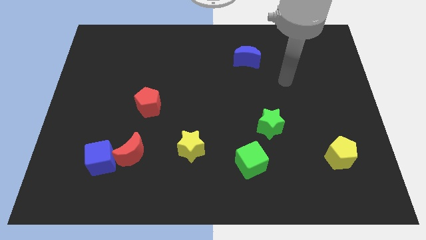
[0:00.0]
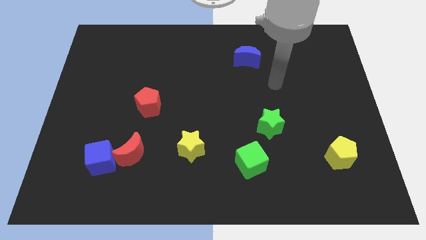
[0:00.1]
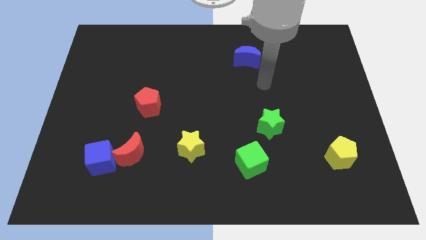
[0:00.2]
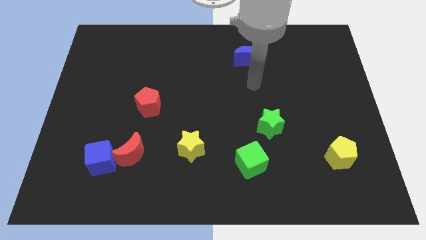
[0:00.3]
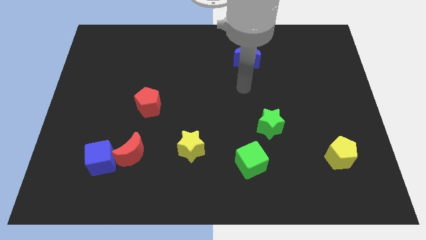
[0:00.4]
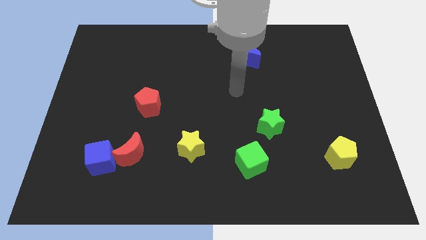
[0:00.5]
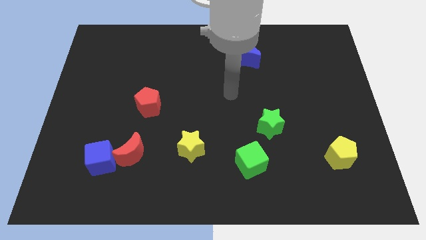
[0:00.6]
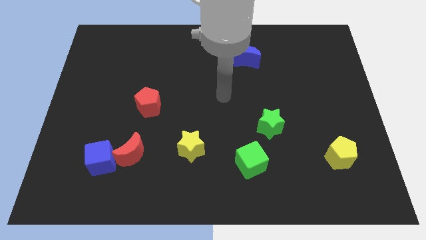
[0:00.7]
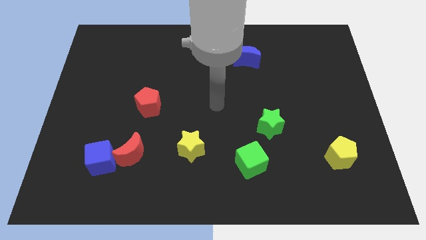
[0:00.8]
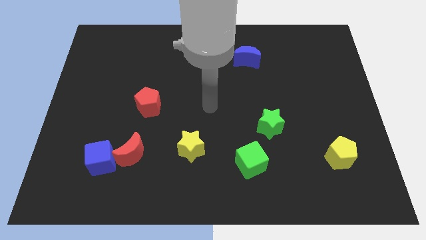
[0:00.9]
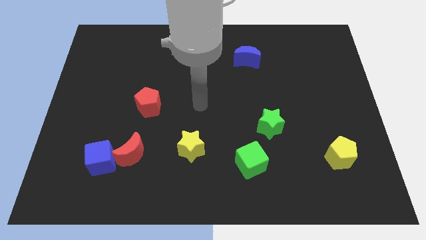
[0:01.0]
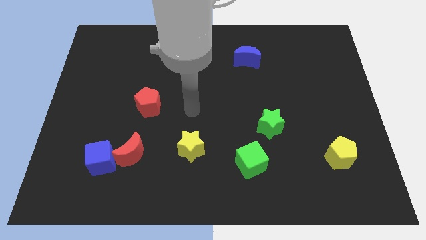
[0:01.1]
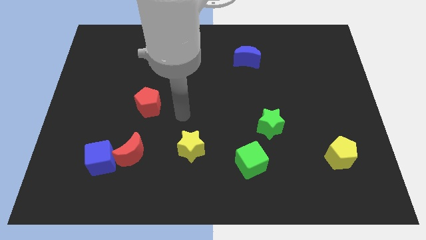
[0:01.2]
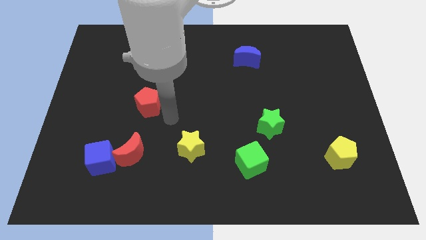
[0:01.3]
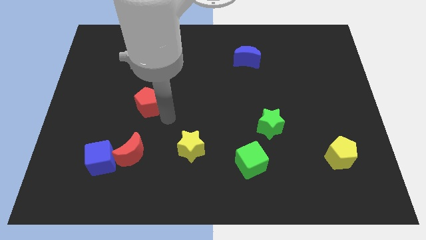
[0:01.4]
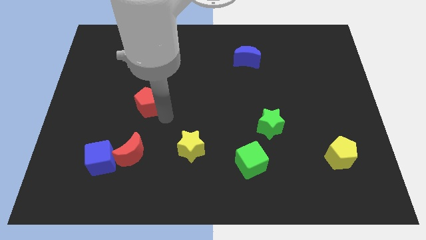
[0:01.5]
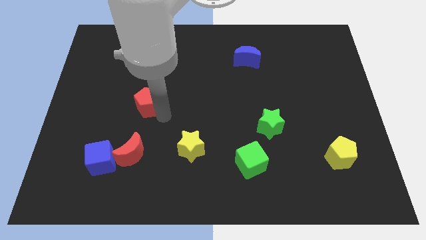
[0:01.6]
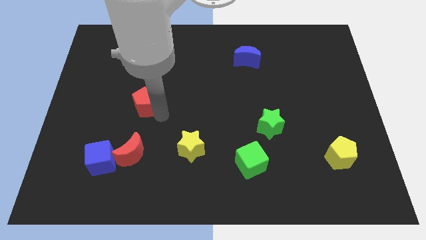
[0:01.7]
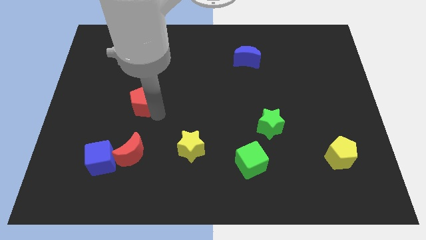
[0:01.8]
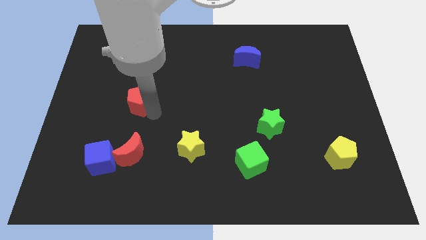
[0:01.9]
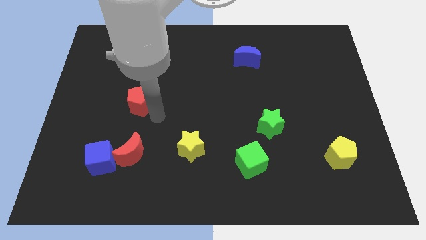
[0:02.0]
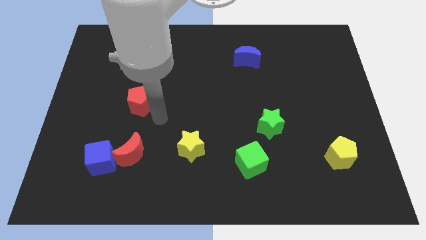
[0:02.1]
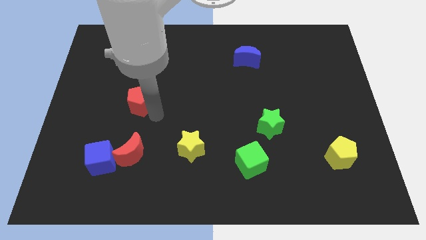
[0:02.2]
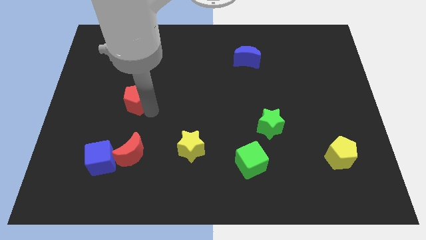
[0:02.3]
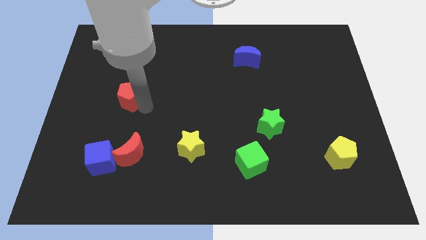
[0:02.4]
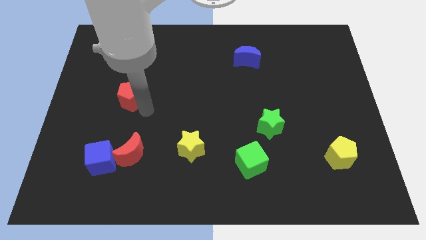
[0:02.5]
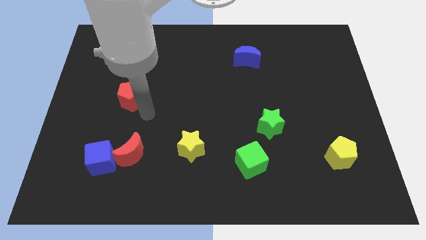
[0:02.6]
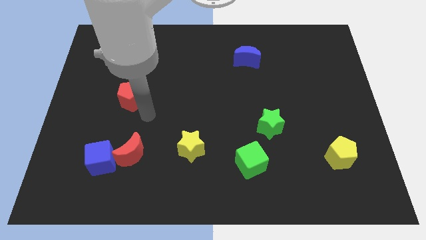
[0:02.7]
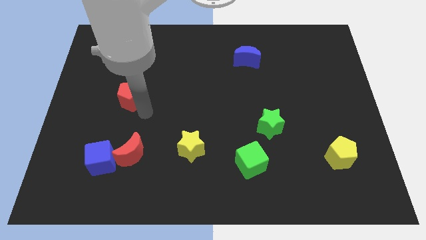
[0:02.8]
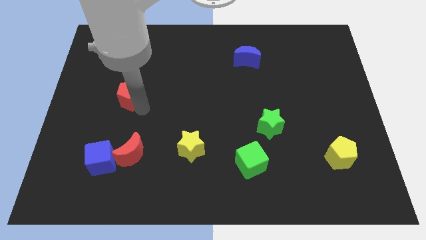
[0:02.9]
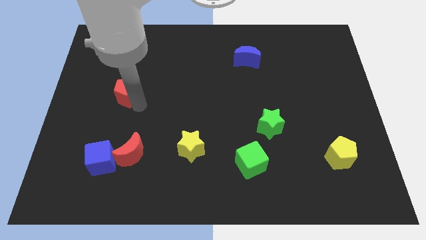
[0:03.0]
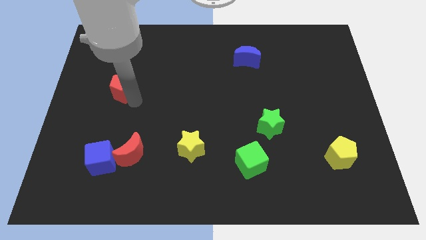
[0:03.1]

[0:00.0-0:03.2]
slightly slide the red pentagon up and to the left

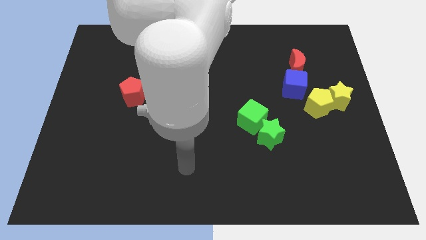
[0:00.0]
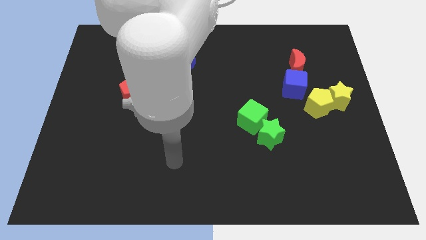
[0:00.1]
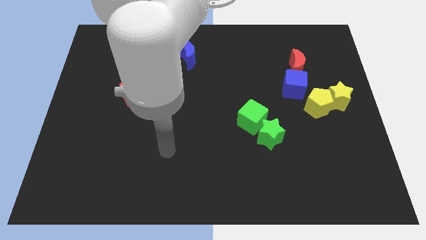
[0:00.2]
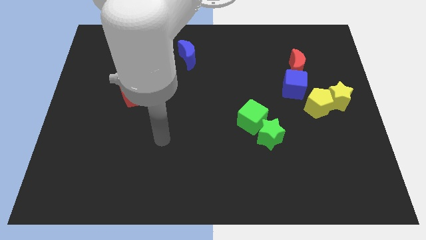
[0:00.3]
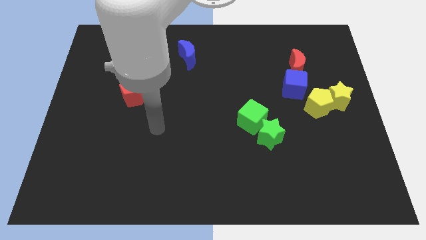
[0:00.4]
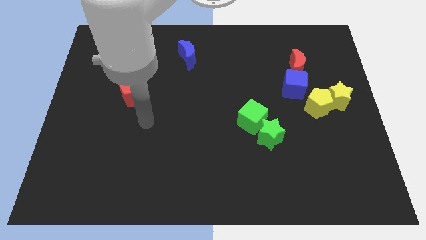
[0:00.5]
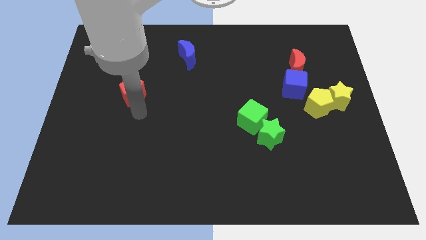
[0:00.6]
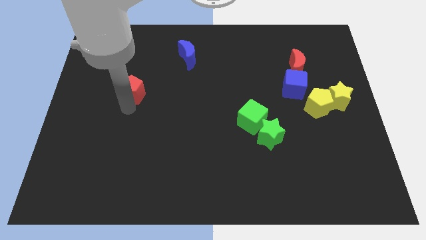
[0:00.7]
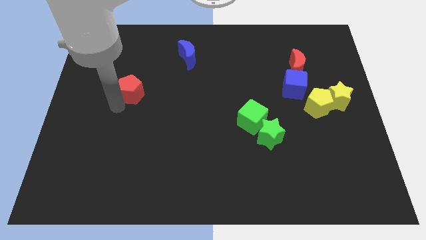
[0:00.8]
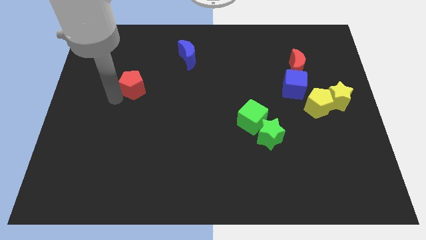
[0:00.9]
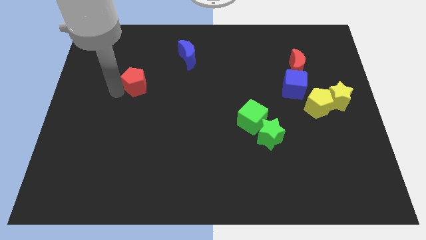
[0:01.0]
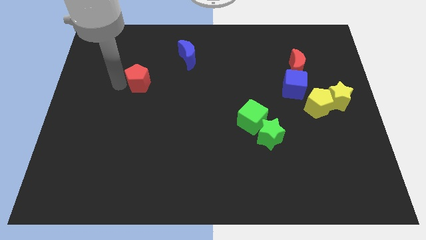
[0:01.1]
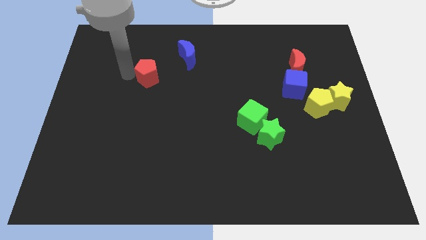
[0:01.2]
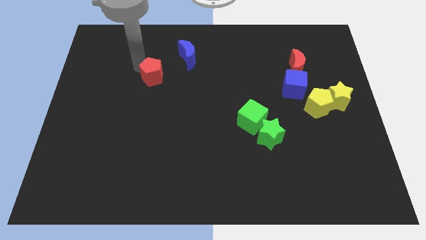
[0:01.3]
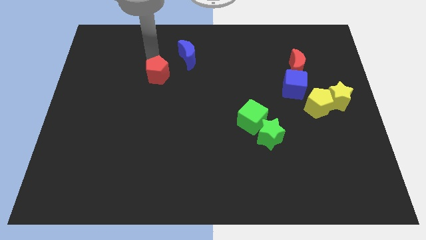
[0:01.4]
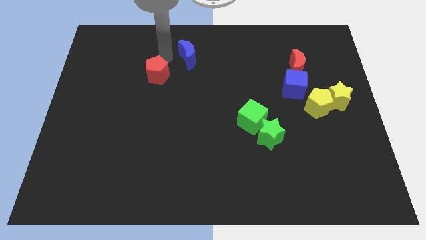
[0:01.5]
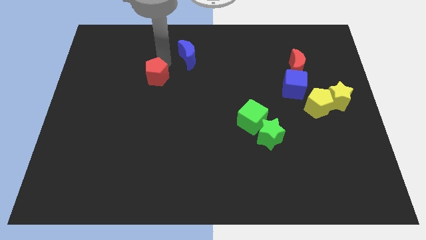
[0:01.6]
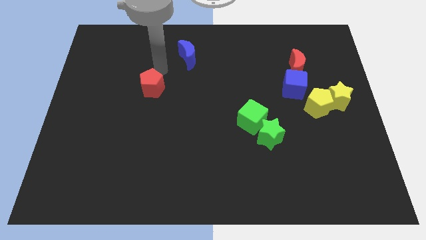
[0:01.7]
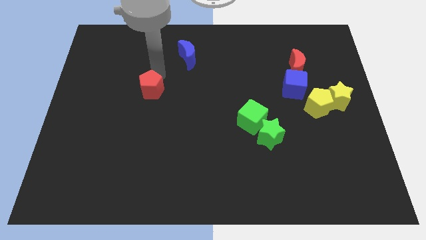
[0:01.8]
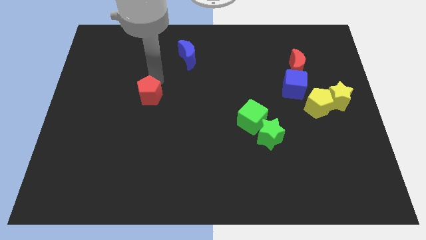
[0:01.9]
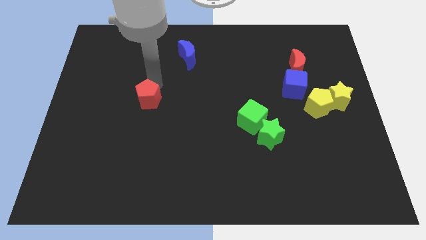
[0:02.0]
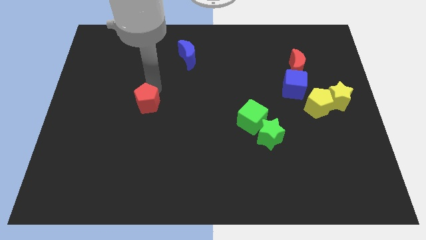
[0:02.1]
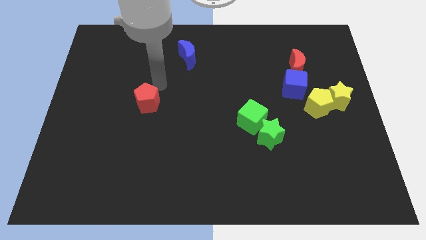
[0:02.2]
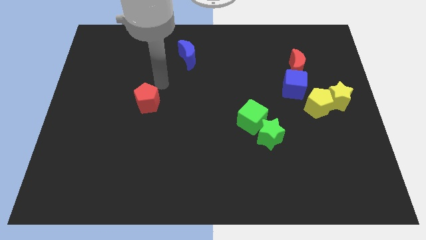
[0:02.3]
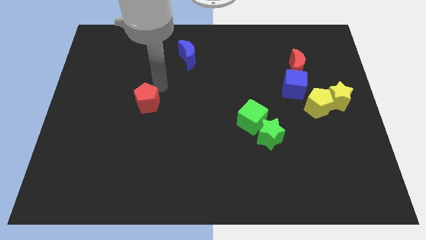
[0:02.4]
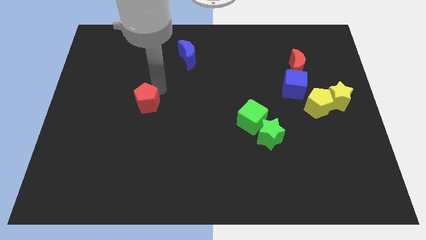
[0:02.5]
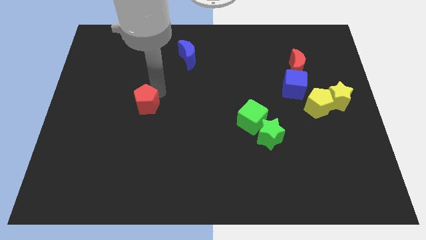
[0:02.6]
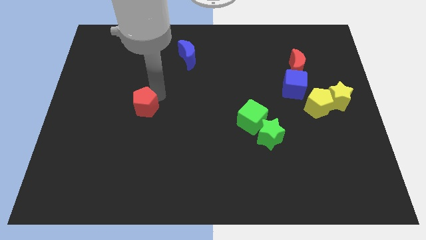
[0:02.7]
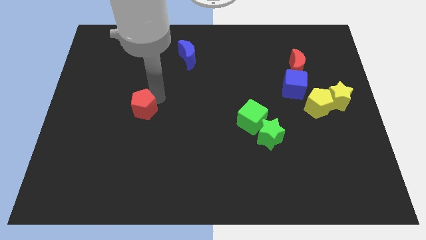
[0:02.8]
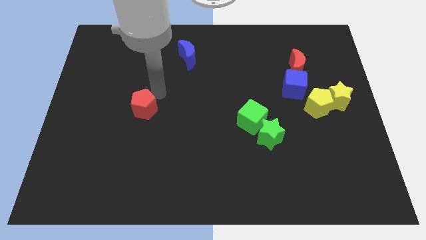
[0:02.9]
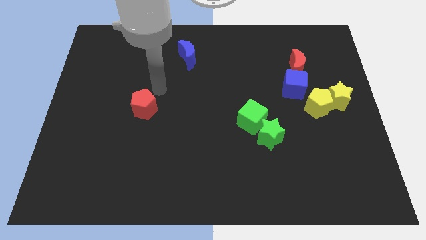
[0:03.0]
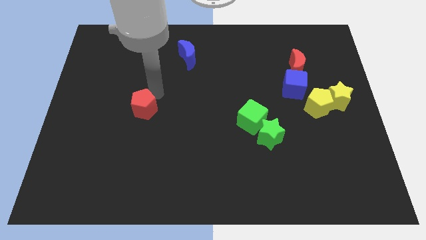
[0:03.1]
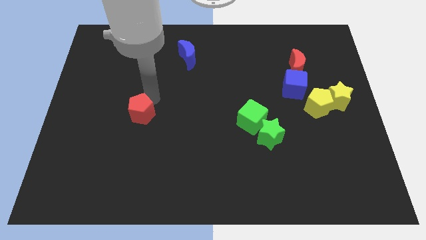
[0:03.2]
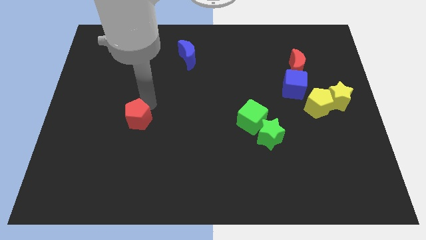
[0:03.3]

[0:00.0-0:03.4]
slide the red pentagon downwards slightly

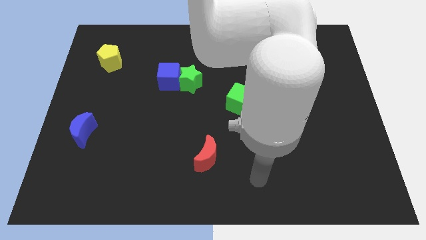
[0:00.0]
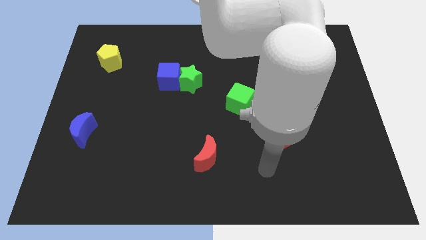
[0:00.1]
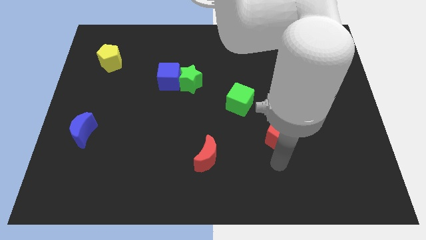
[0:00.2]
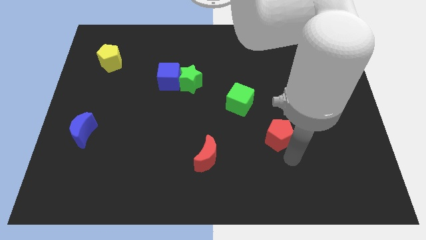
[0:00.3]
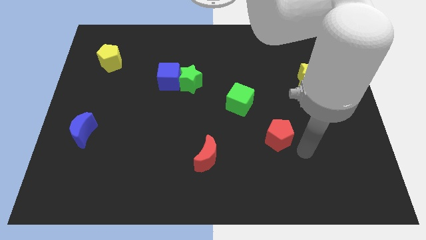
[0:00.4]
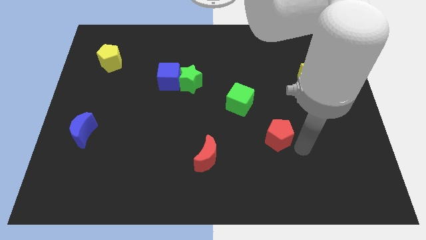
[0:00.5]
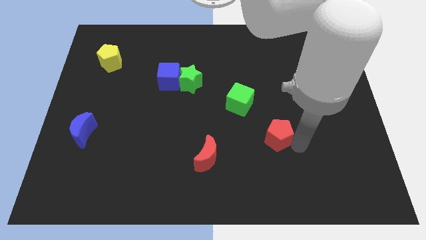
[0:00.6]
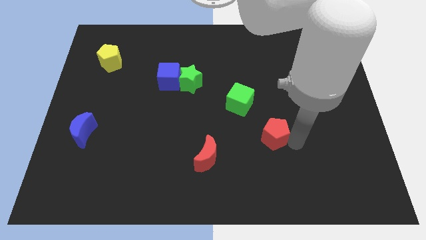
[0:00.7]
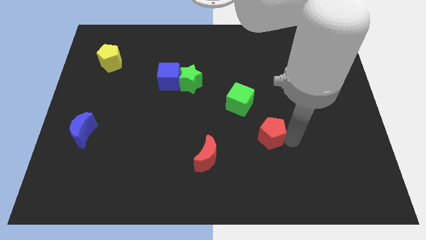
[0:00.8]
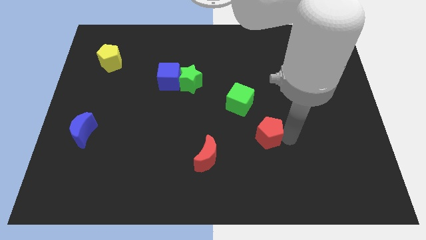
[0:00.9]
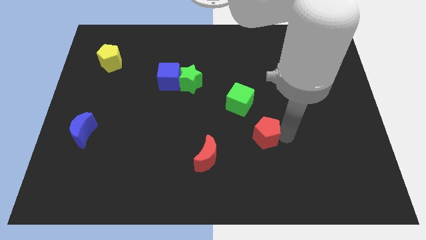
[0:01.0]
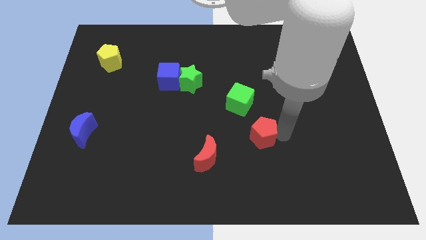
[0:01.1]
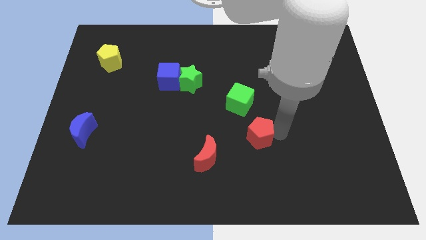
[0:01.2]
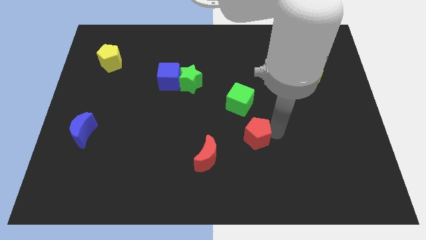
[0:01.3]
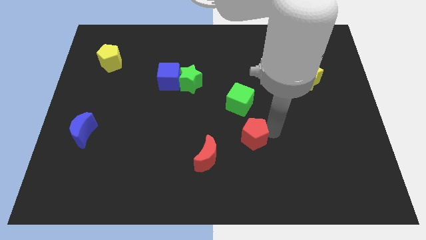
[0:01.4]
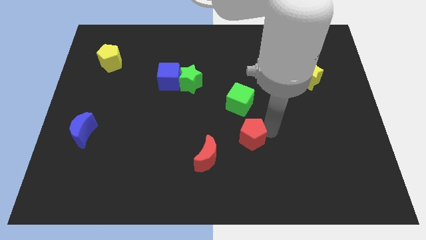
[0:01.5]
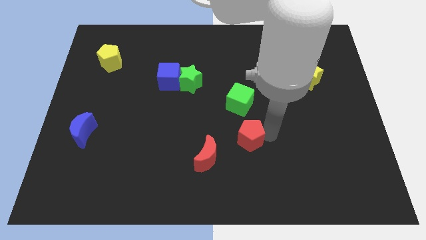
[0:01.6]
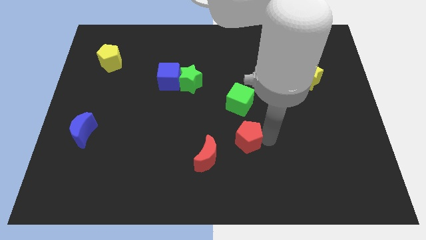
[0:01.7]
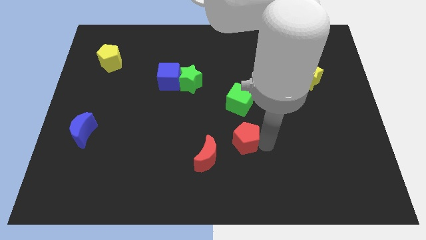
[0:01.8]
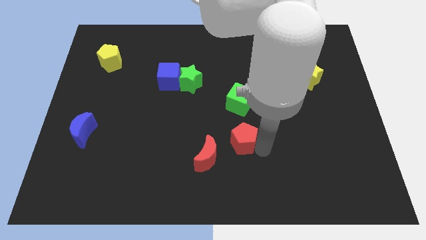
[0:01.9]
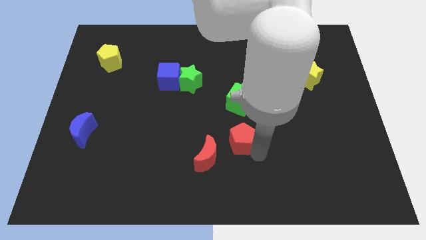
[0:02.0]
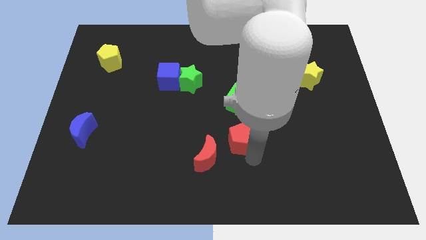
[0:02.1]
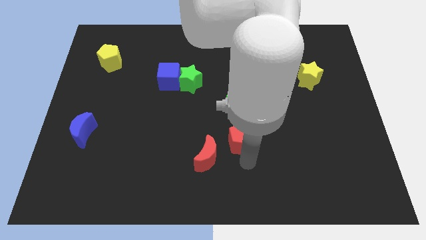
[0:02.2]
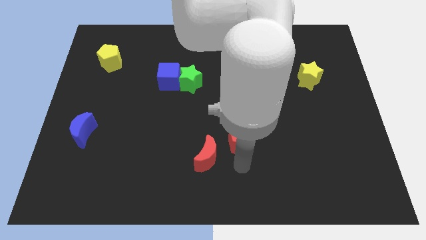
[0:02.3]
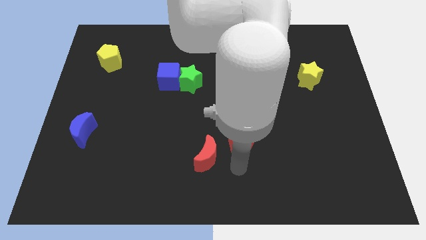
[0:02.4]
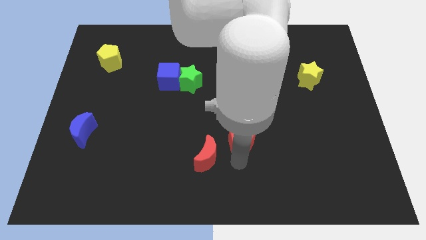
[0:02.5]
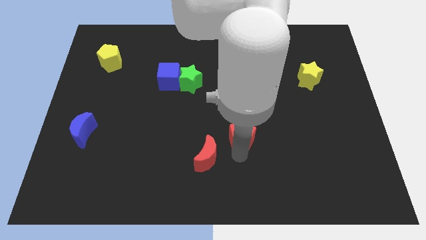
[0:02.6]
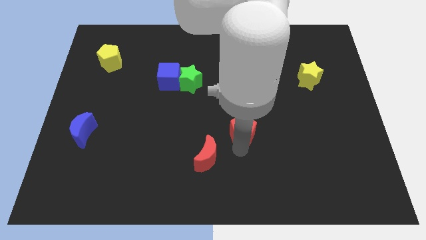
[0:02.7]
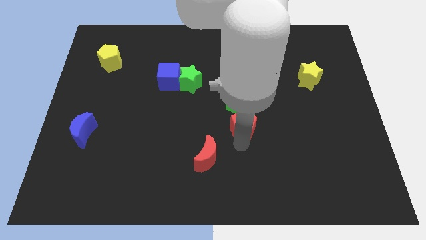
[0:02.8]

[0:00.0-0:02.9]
slide the red pentagon slightly upwards and to the left
